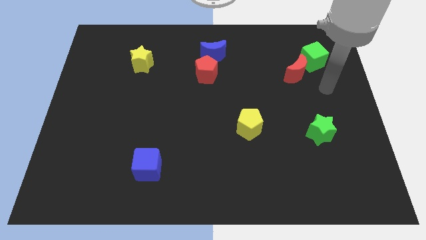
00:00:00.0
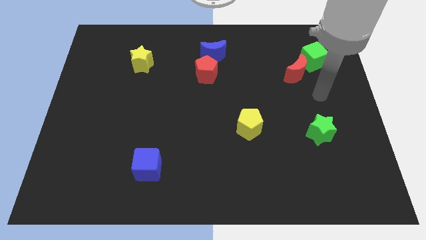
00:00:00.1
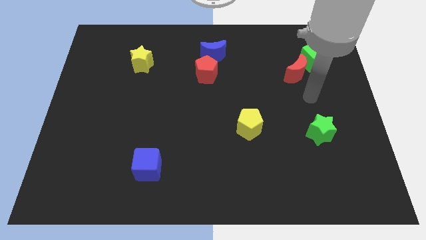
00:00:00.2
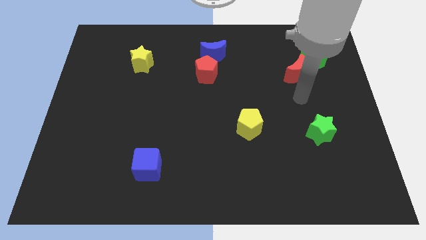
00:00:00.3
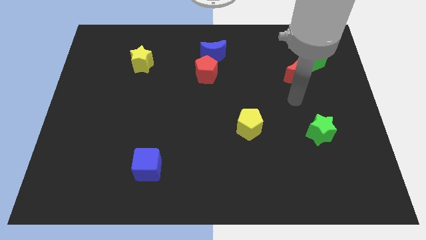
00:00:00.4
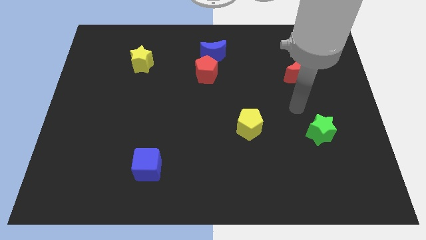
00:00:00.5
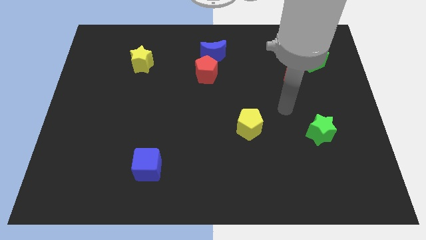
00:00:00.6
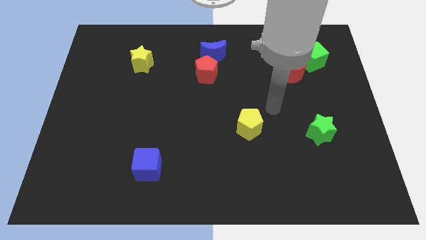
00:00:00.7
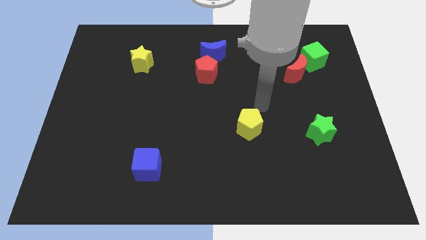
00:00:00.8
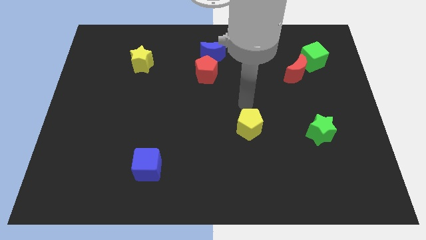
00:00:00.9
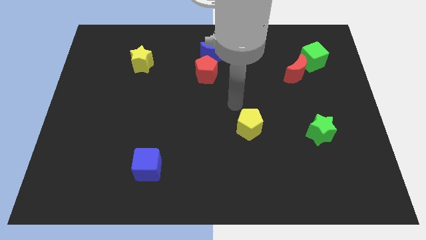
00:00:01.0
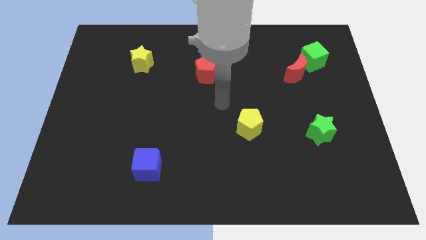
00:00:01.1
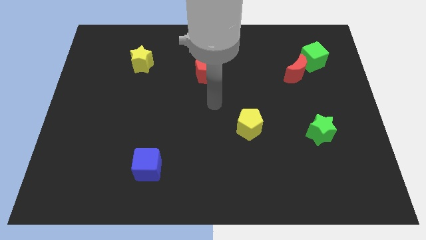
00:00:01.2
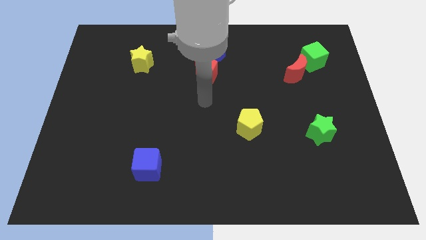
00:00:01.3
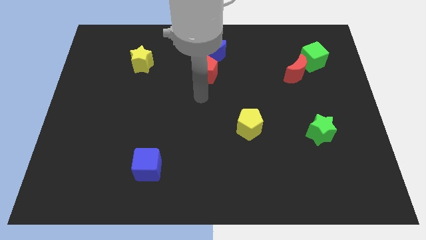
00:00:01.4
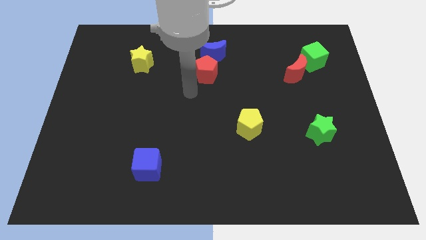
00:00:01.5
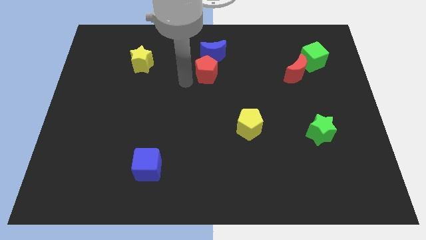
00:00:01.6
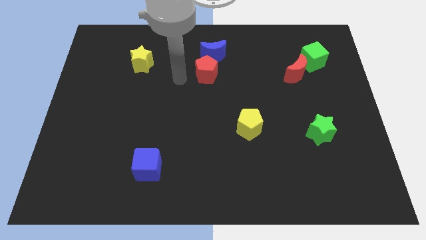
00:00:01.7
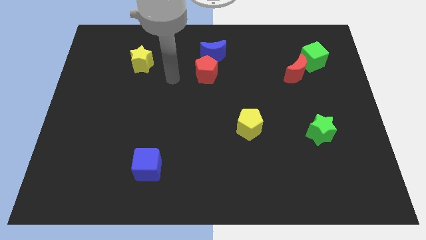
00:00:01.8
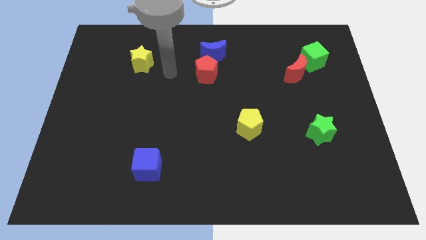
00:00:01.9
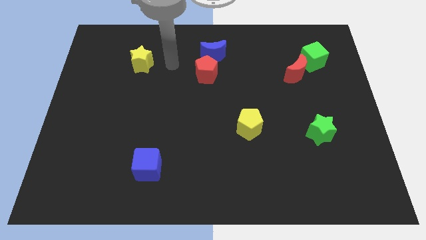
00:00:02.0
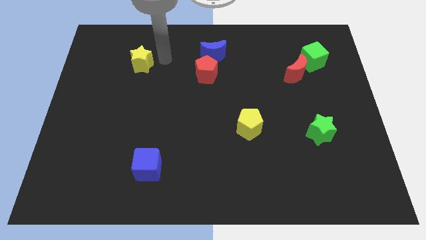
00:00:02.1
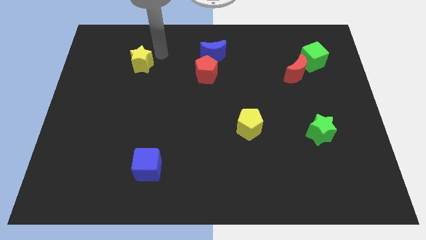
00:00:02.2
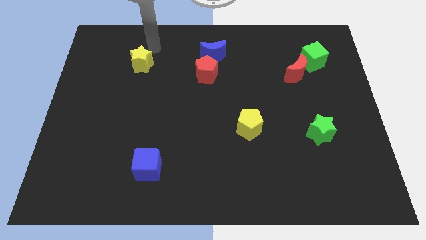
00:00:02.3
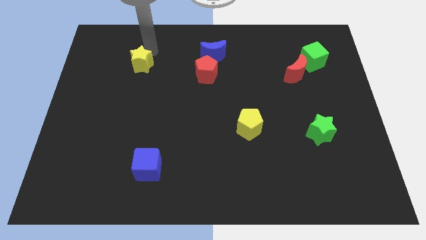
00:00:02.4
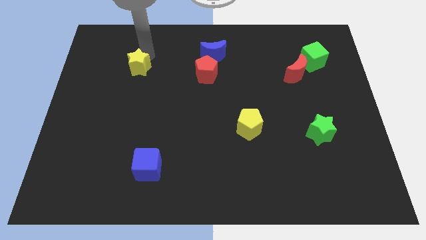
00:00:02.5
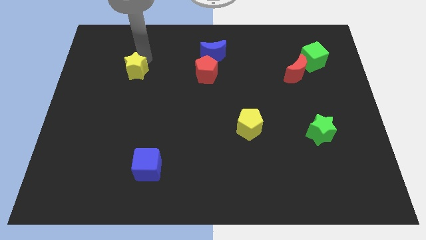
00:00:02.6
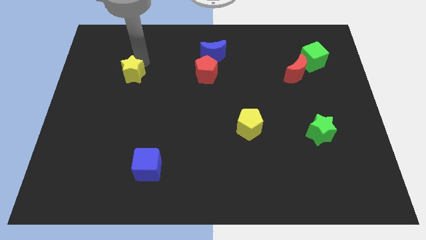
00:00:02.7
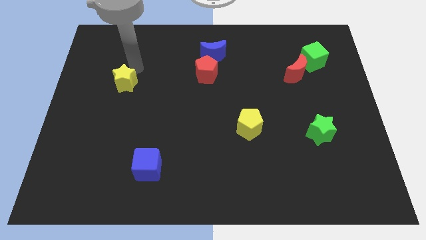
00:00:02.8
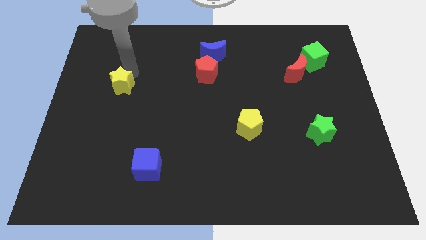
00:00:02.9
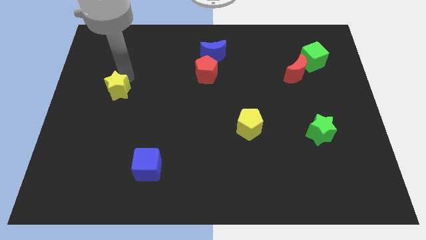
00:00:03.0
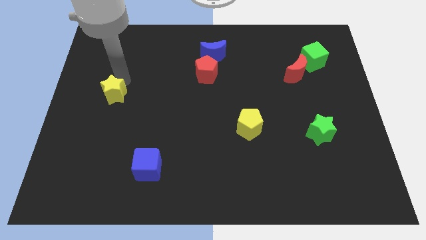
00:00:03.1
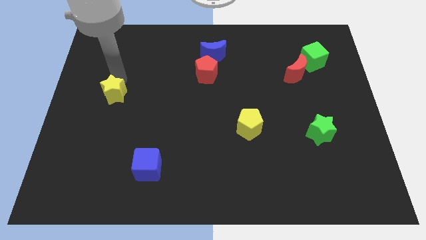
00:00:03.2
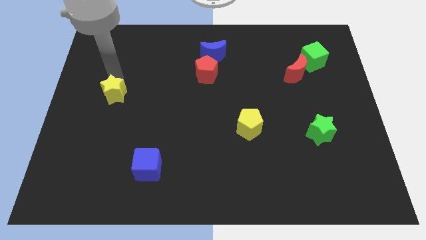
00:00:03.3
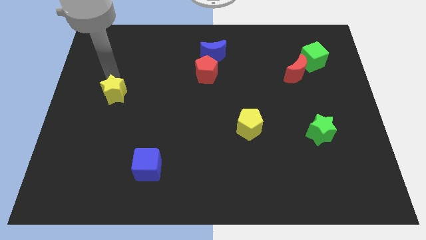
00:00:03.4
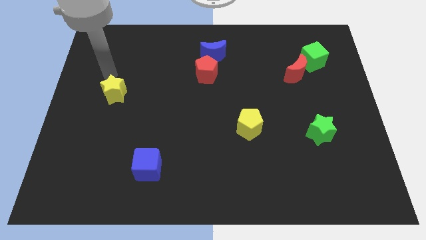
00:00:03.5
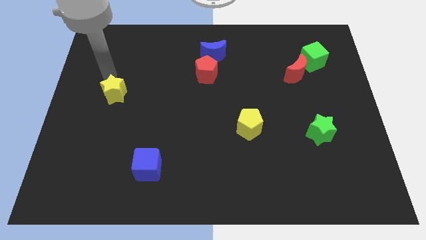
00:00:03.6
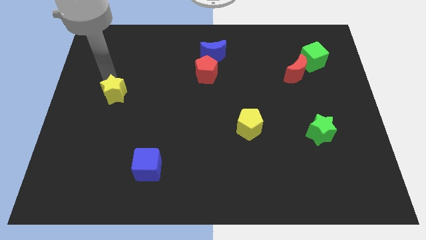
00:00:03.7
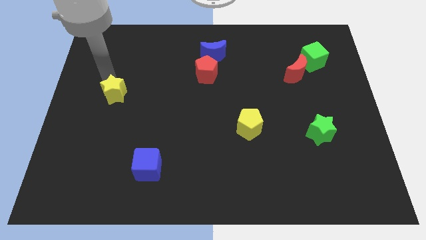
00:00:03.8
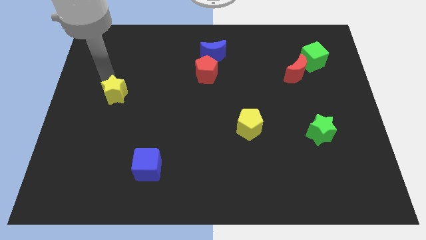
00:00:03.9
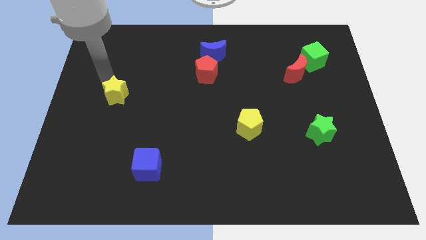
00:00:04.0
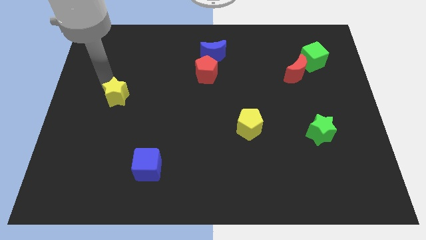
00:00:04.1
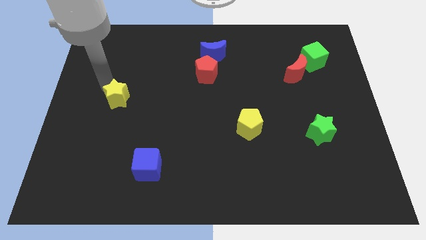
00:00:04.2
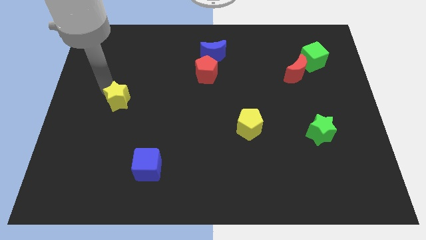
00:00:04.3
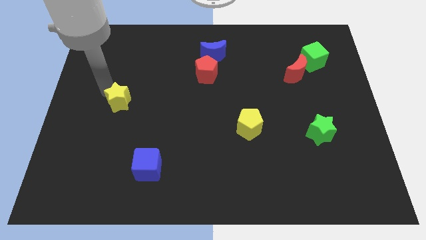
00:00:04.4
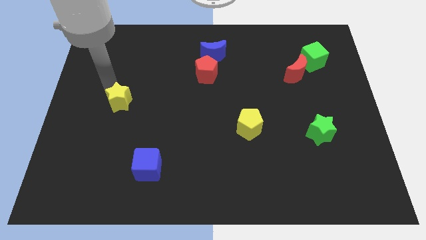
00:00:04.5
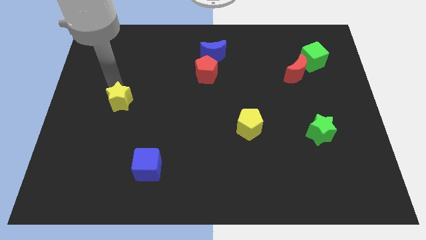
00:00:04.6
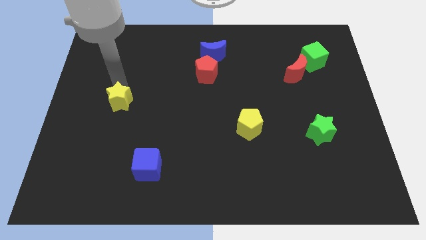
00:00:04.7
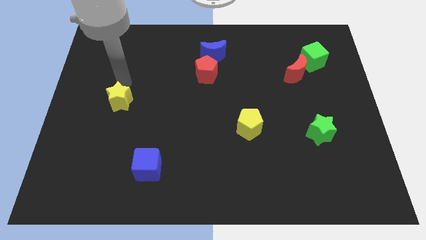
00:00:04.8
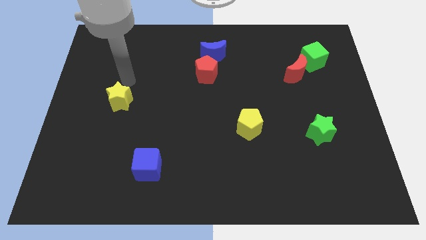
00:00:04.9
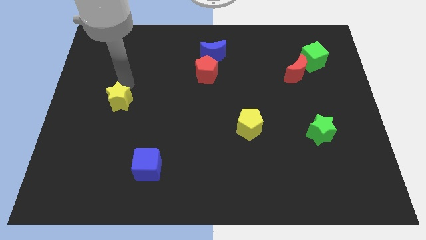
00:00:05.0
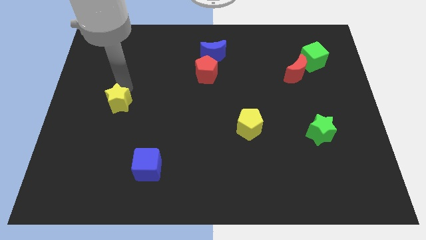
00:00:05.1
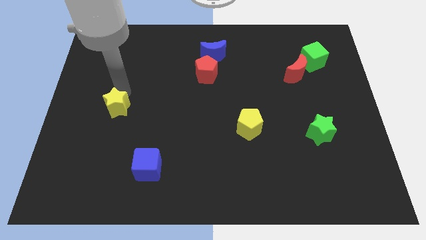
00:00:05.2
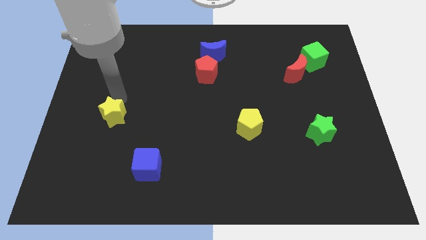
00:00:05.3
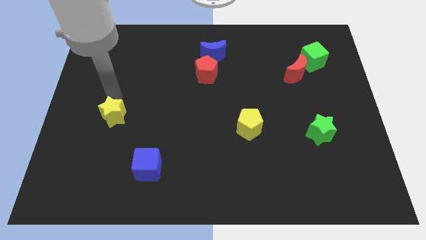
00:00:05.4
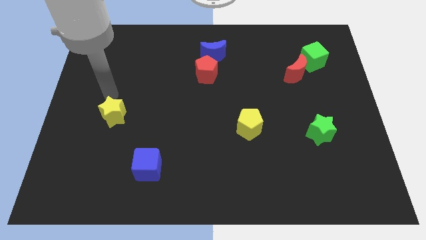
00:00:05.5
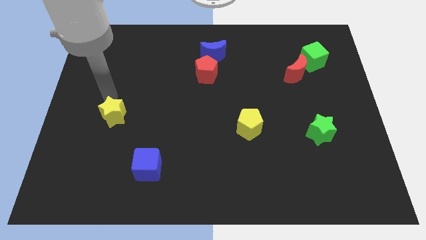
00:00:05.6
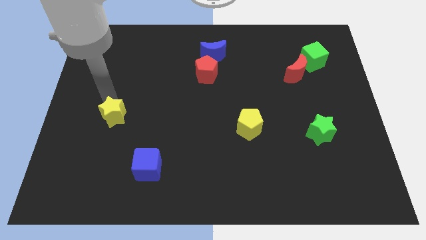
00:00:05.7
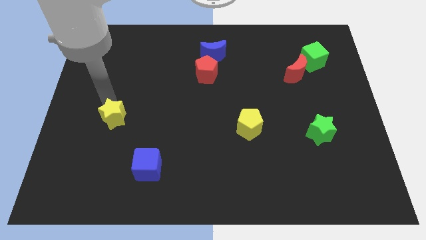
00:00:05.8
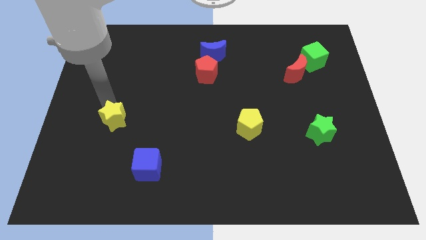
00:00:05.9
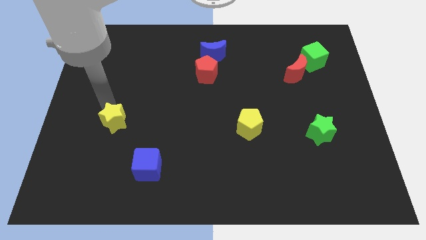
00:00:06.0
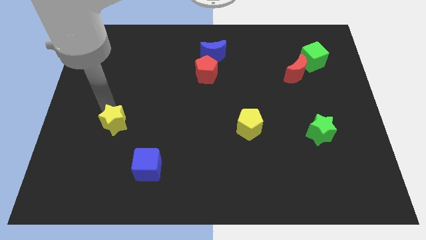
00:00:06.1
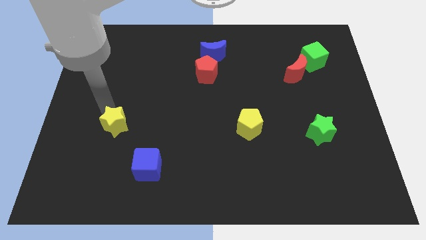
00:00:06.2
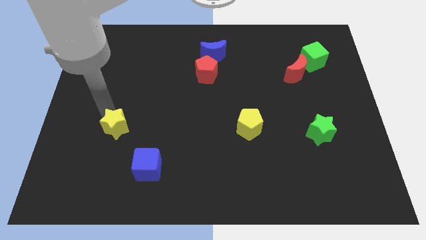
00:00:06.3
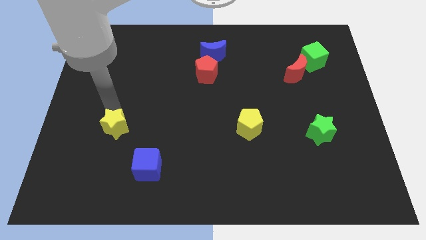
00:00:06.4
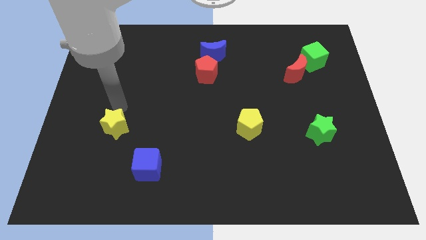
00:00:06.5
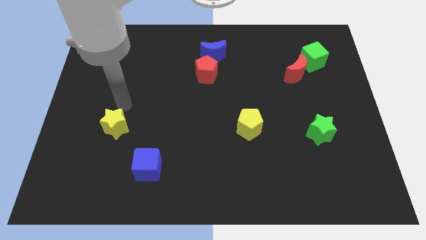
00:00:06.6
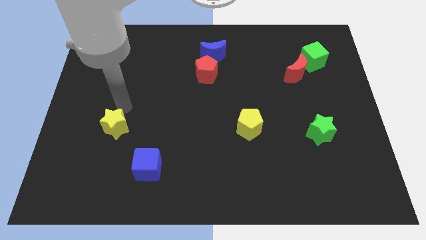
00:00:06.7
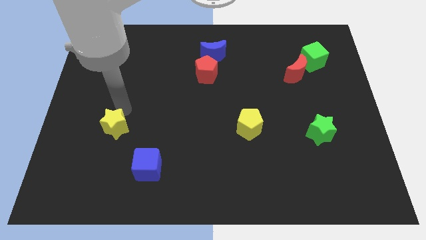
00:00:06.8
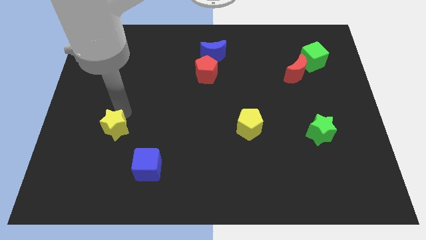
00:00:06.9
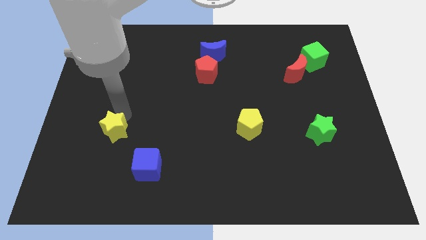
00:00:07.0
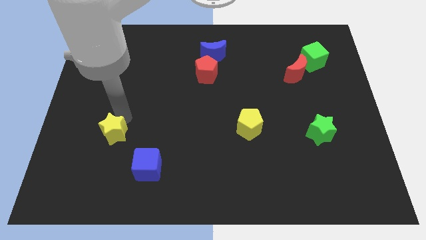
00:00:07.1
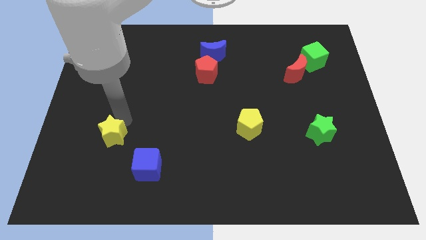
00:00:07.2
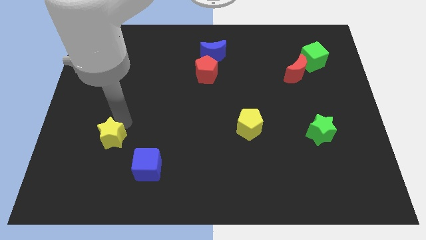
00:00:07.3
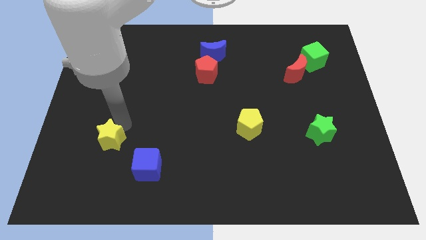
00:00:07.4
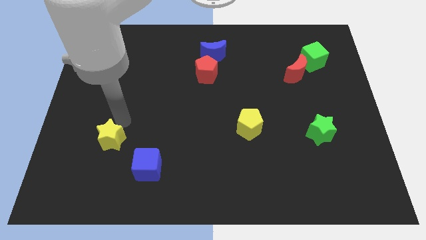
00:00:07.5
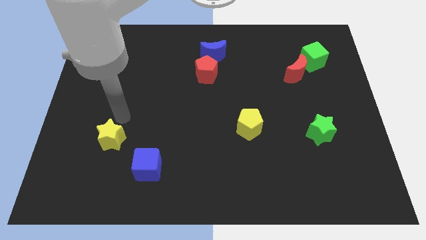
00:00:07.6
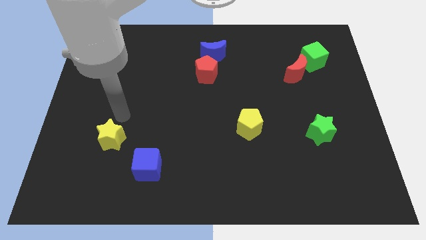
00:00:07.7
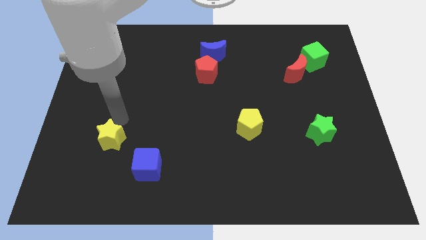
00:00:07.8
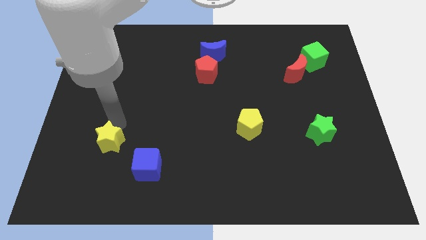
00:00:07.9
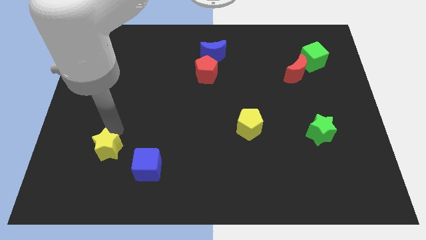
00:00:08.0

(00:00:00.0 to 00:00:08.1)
move the yellow star to the left of the blue cube
